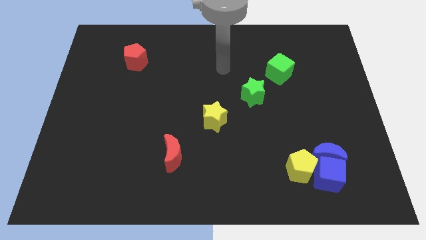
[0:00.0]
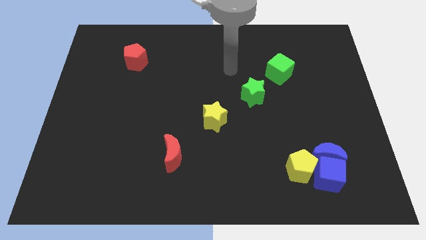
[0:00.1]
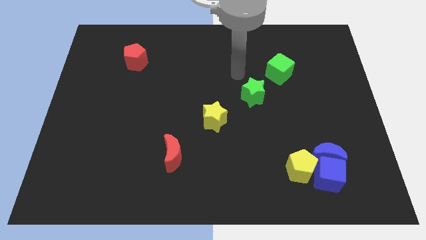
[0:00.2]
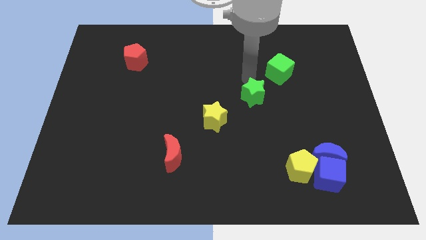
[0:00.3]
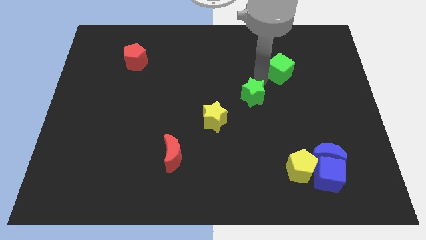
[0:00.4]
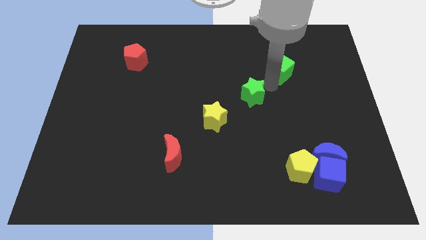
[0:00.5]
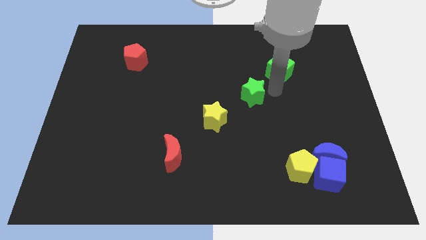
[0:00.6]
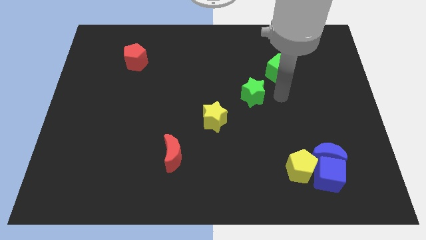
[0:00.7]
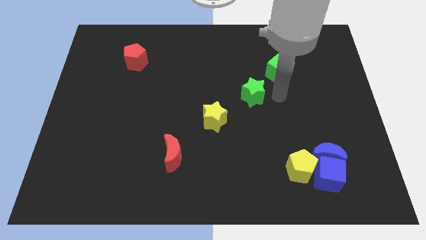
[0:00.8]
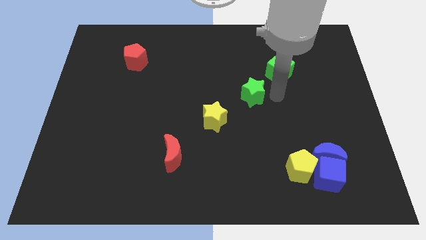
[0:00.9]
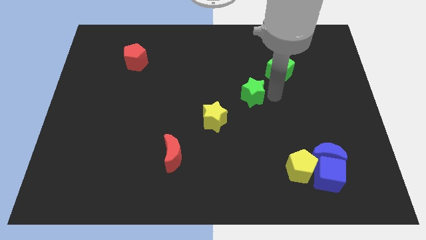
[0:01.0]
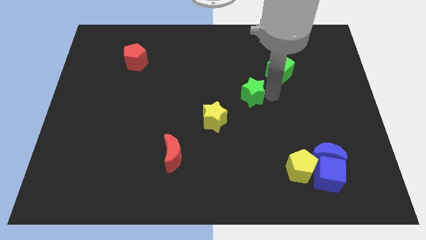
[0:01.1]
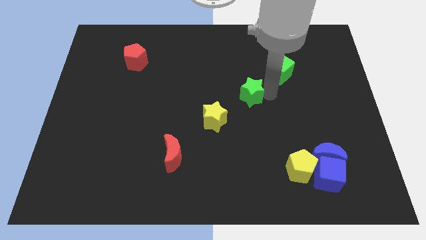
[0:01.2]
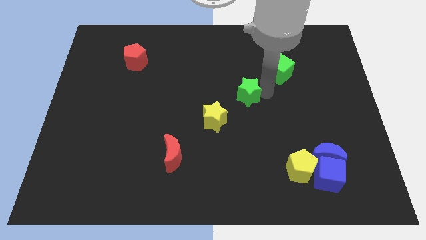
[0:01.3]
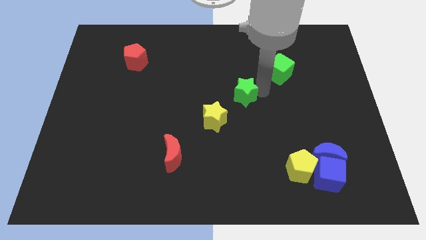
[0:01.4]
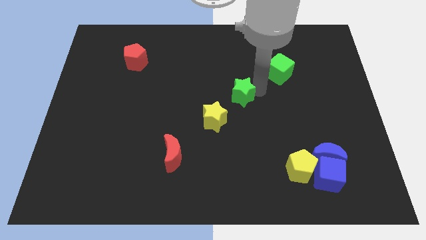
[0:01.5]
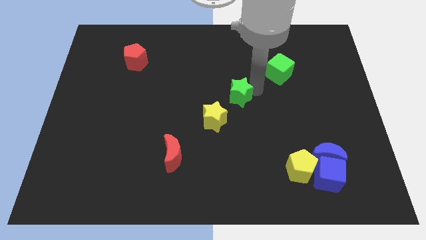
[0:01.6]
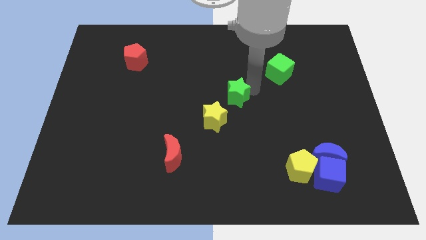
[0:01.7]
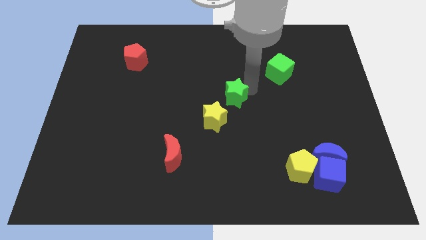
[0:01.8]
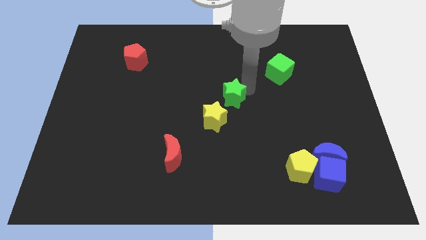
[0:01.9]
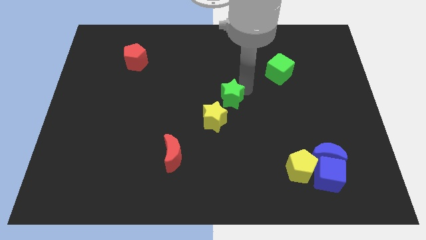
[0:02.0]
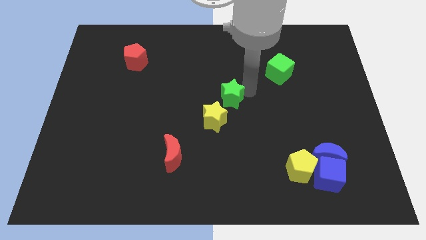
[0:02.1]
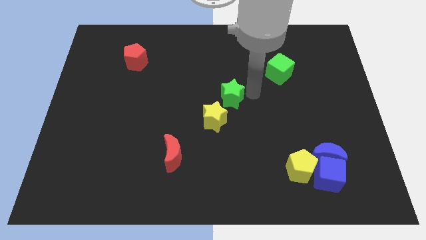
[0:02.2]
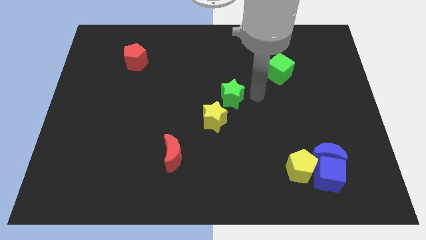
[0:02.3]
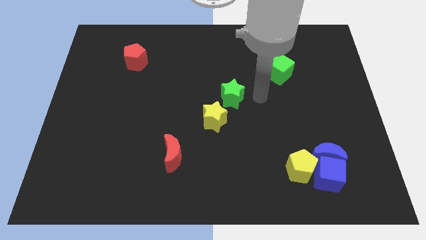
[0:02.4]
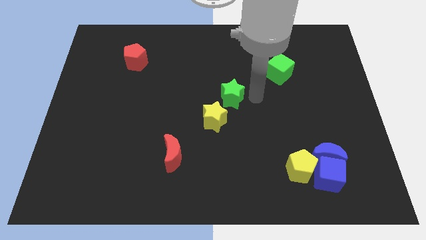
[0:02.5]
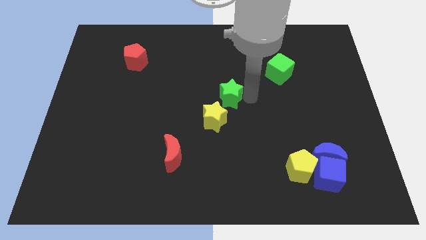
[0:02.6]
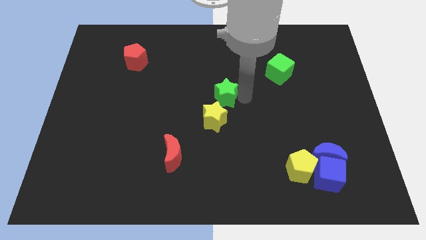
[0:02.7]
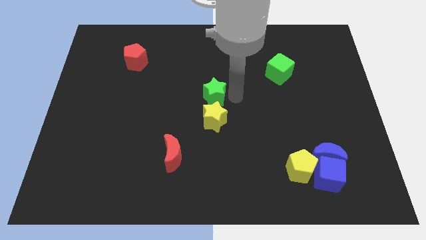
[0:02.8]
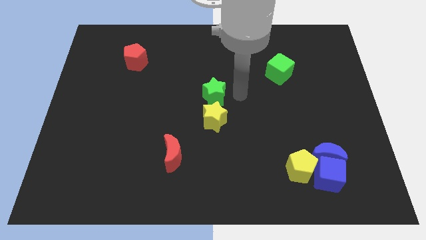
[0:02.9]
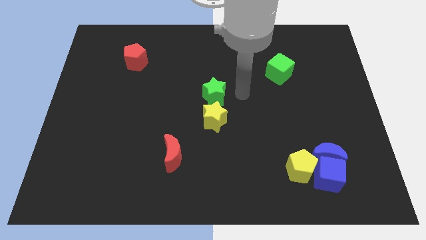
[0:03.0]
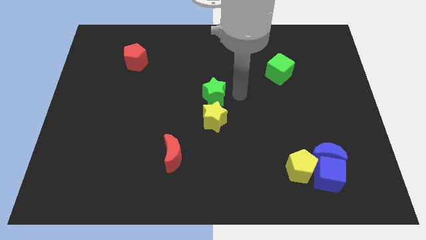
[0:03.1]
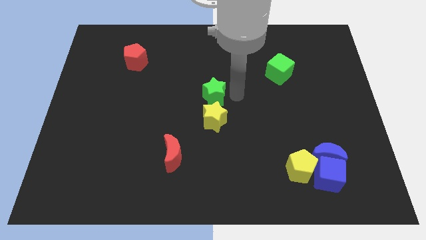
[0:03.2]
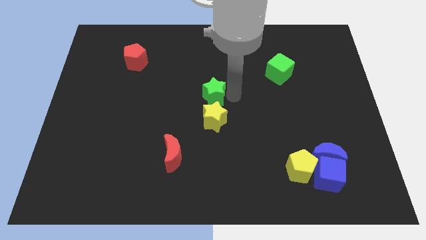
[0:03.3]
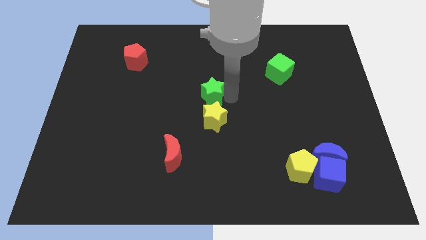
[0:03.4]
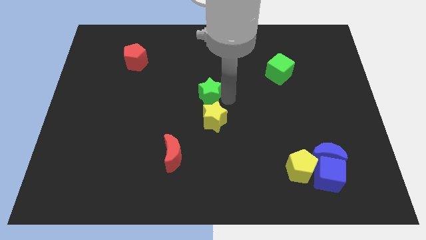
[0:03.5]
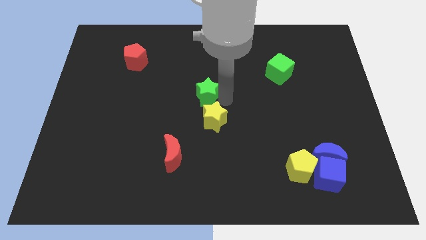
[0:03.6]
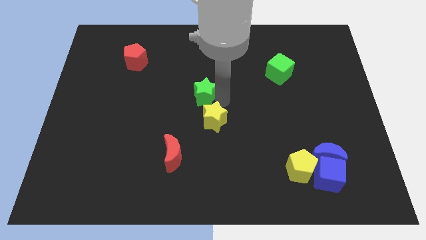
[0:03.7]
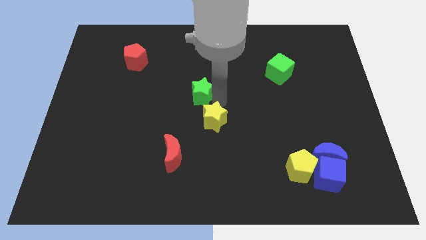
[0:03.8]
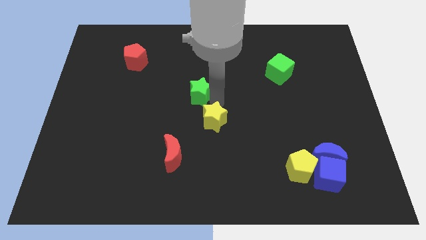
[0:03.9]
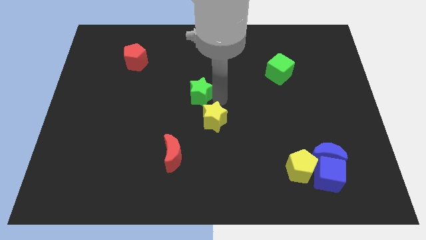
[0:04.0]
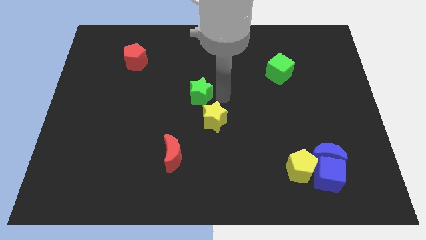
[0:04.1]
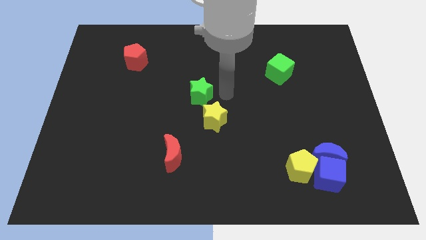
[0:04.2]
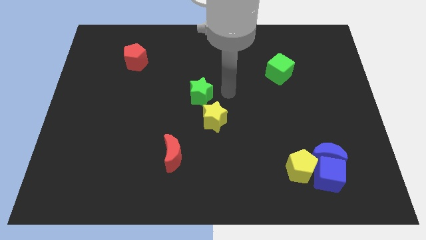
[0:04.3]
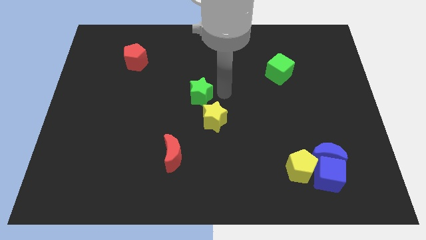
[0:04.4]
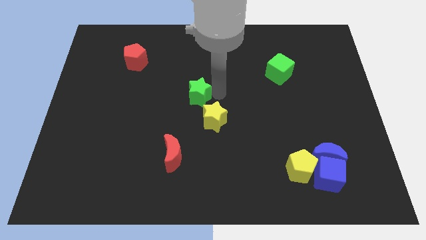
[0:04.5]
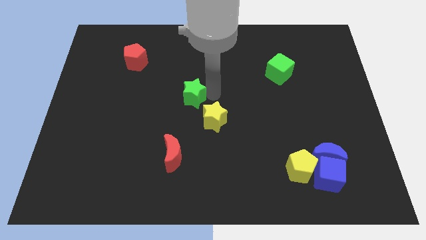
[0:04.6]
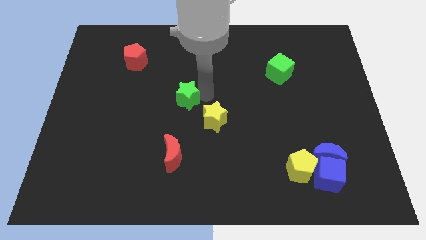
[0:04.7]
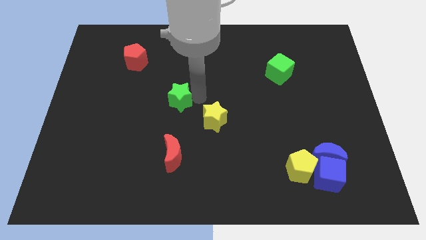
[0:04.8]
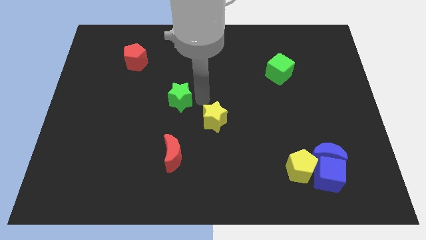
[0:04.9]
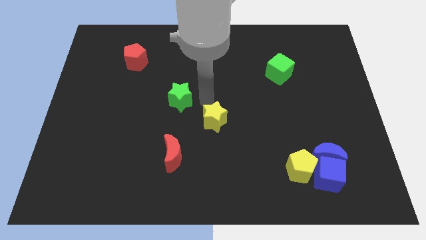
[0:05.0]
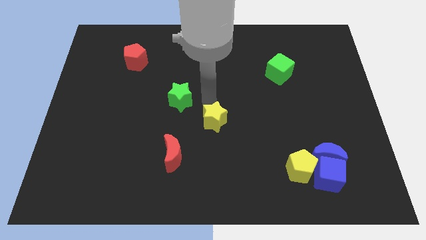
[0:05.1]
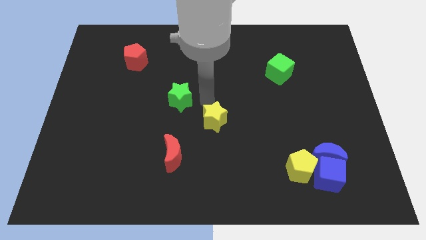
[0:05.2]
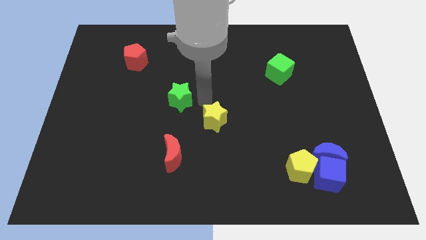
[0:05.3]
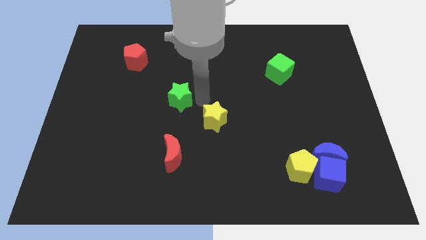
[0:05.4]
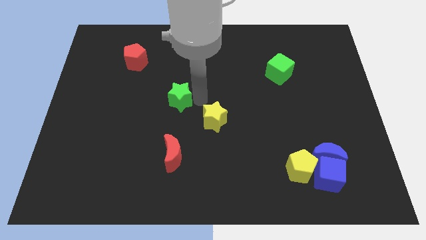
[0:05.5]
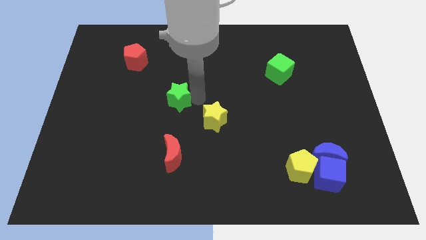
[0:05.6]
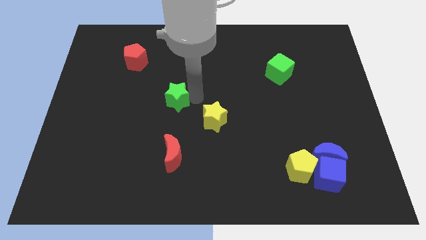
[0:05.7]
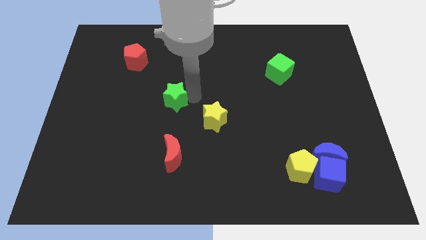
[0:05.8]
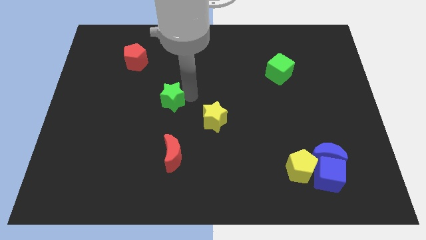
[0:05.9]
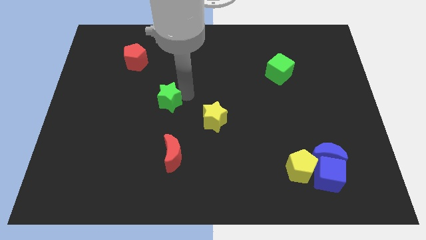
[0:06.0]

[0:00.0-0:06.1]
push the green star to the left

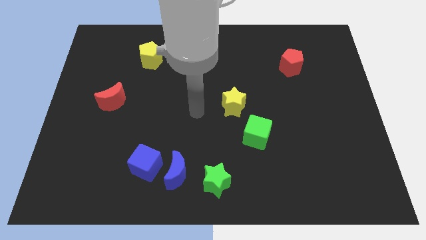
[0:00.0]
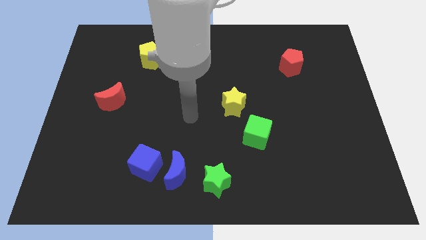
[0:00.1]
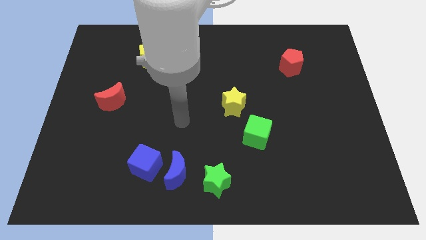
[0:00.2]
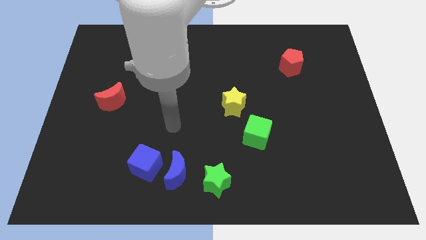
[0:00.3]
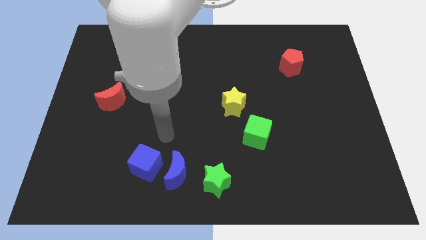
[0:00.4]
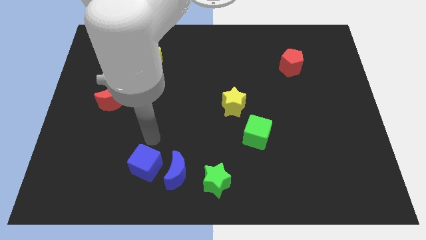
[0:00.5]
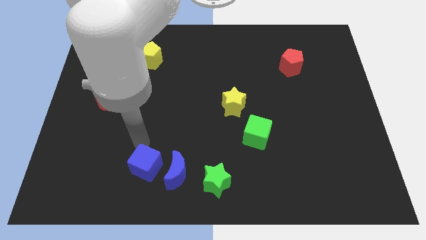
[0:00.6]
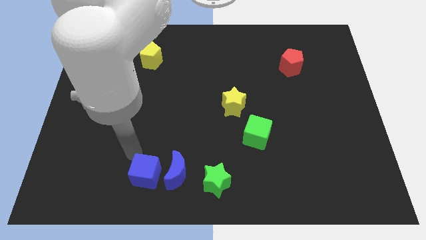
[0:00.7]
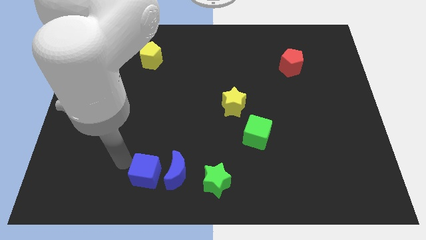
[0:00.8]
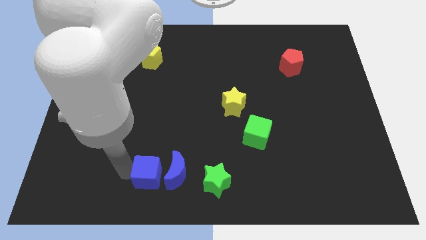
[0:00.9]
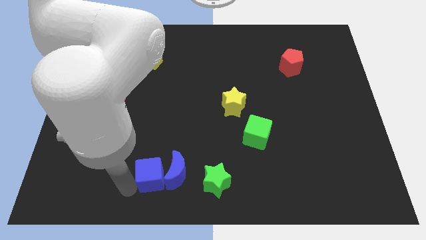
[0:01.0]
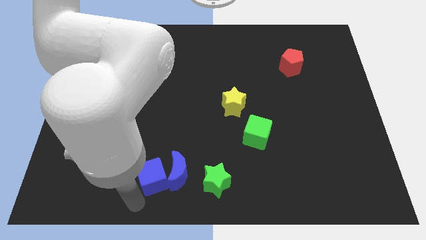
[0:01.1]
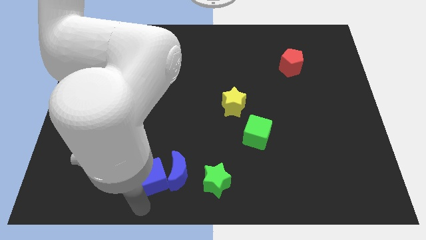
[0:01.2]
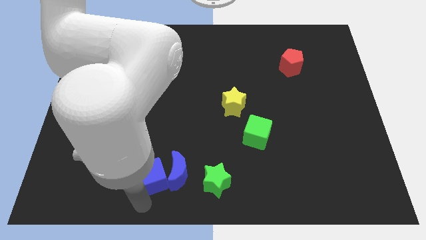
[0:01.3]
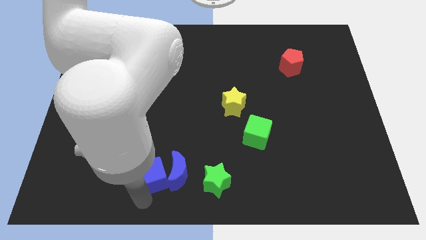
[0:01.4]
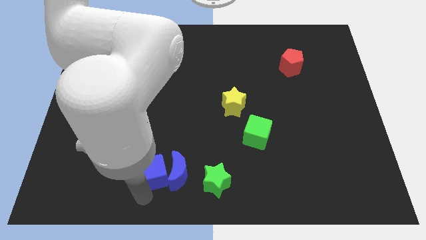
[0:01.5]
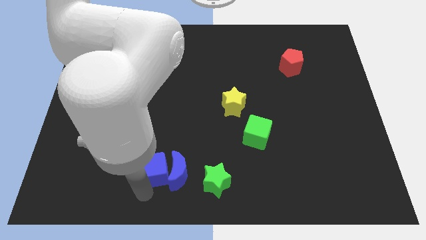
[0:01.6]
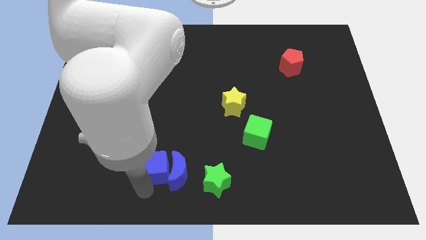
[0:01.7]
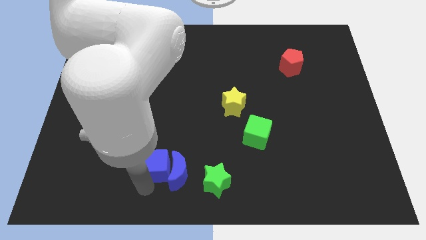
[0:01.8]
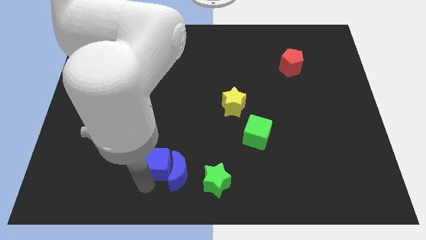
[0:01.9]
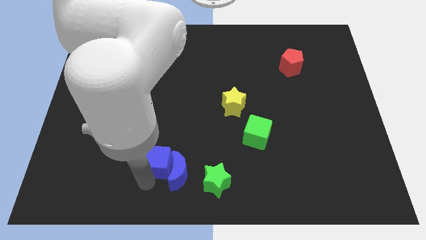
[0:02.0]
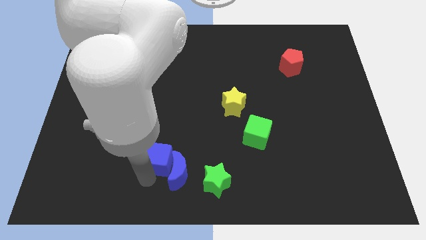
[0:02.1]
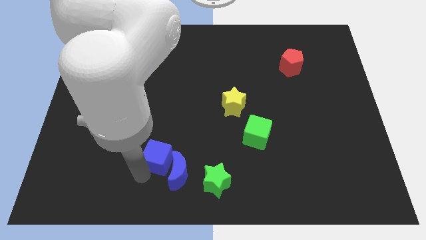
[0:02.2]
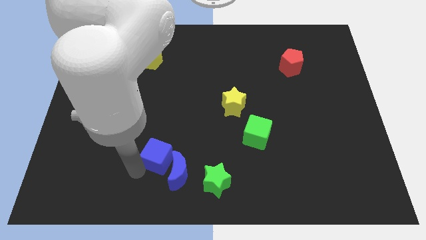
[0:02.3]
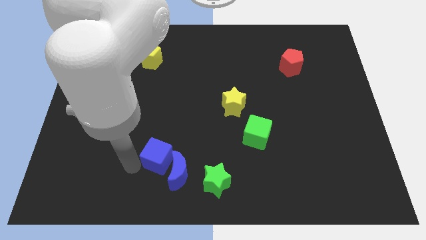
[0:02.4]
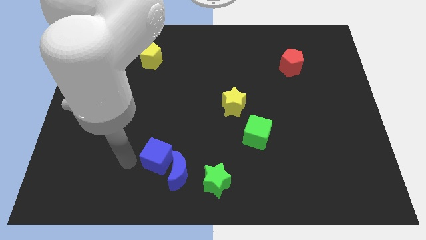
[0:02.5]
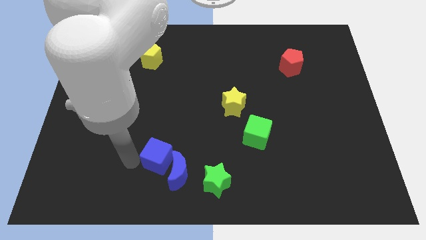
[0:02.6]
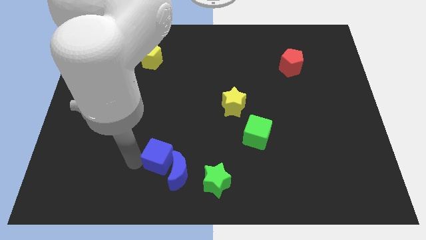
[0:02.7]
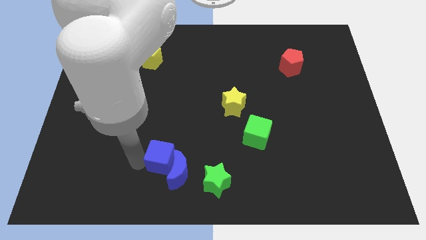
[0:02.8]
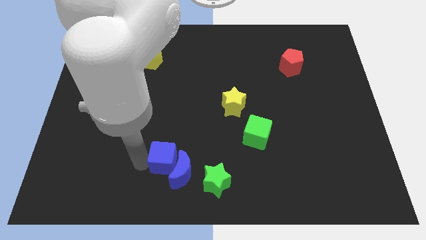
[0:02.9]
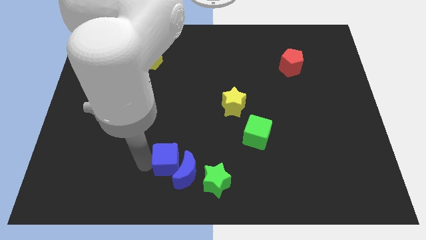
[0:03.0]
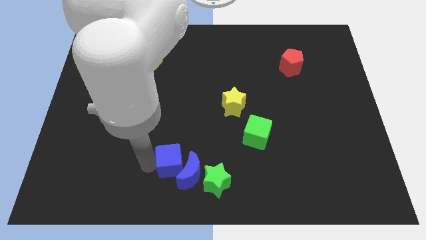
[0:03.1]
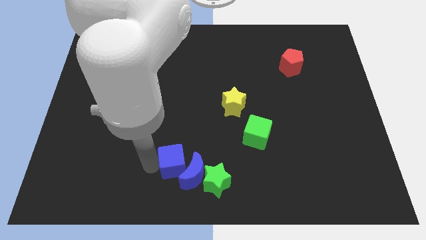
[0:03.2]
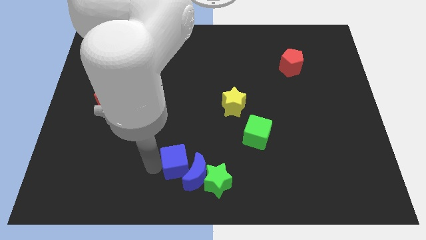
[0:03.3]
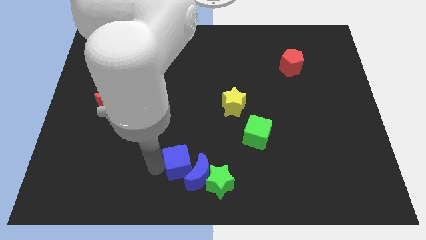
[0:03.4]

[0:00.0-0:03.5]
slightly push the blue cube right
